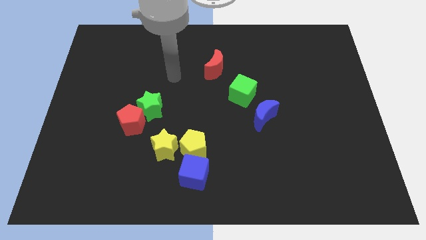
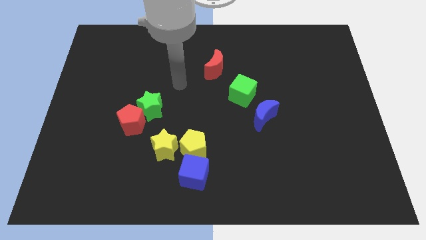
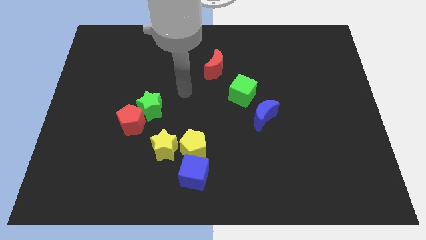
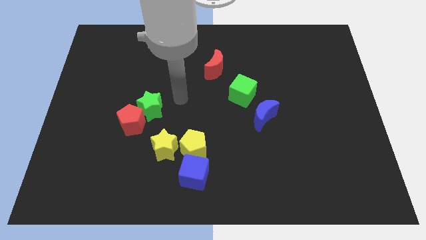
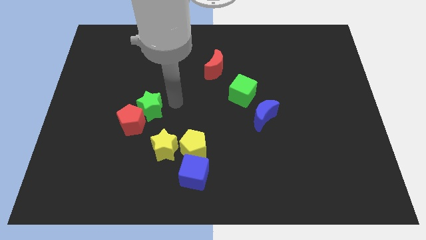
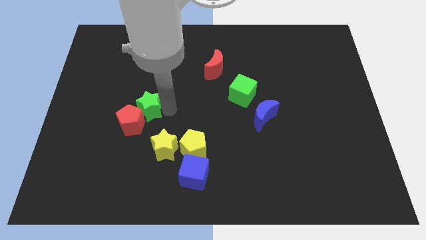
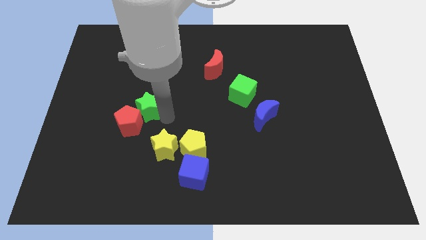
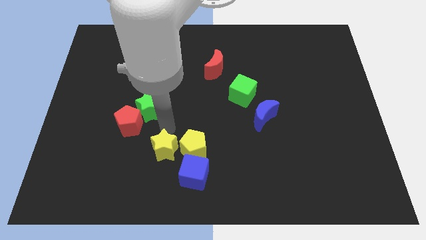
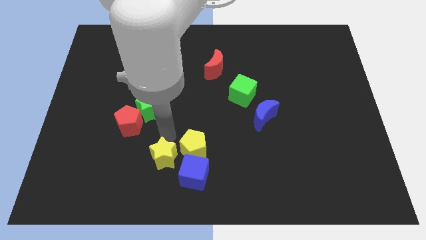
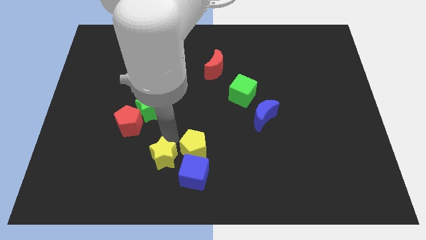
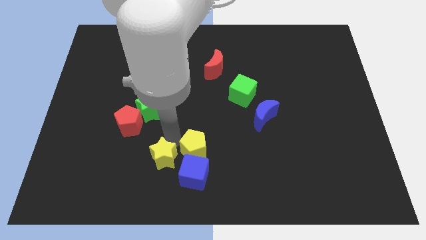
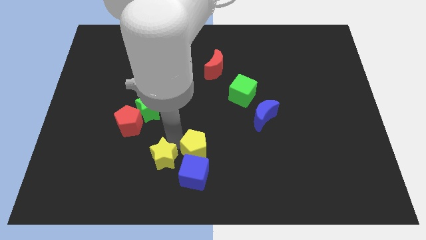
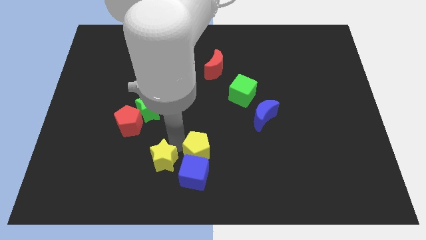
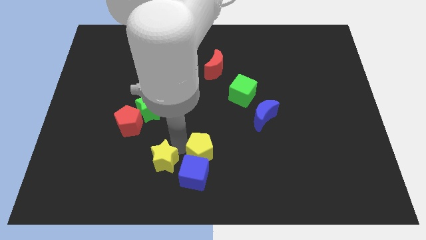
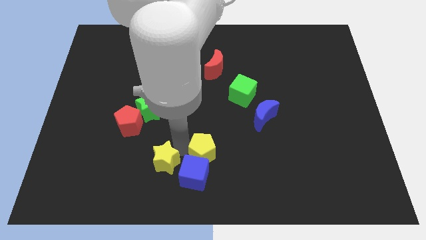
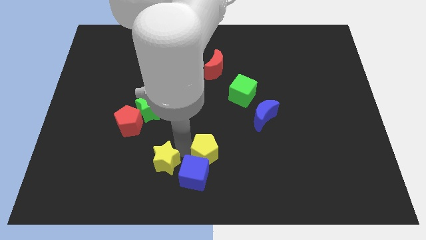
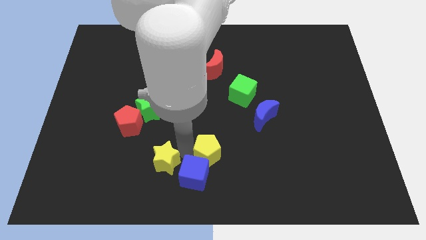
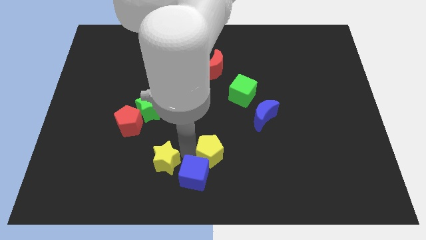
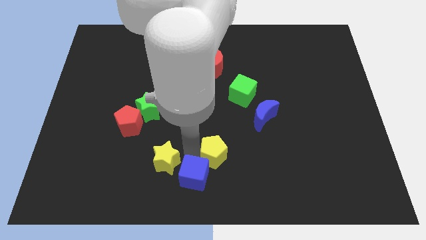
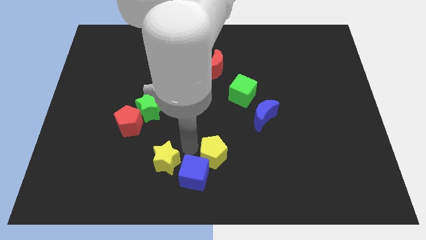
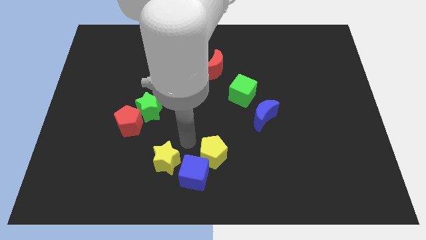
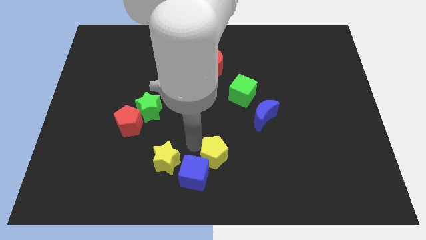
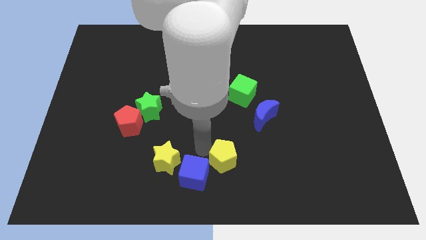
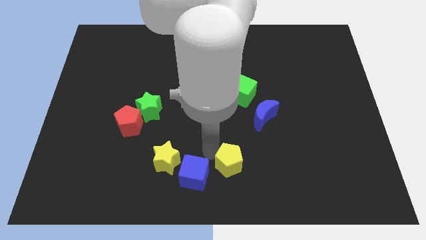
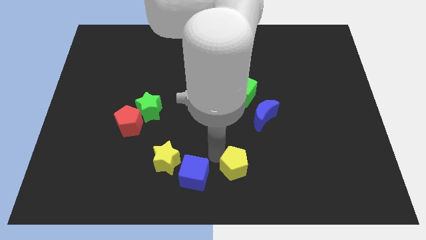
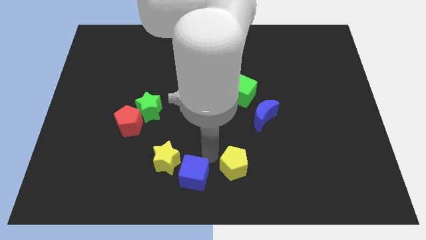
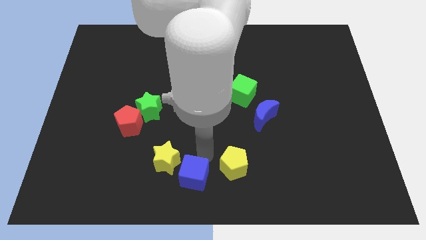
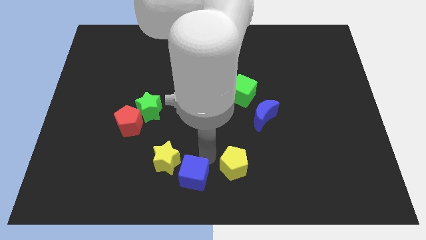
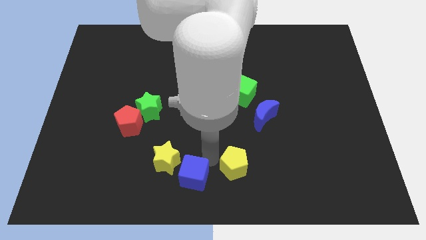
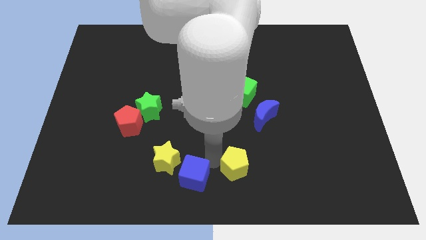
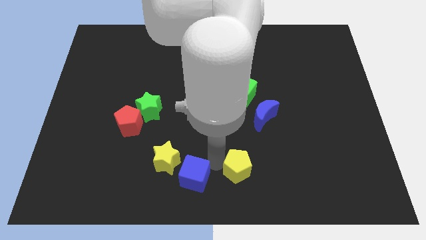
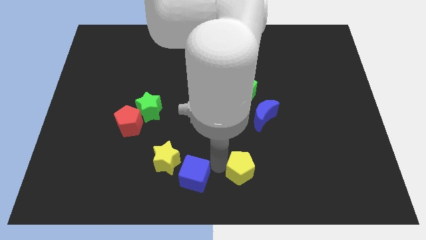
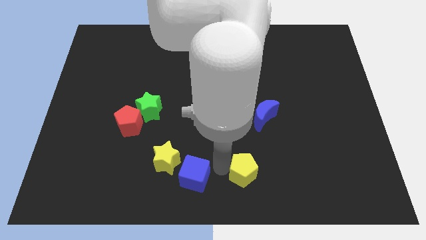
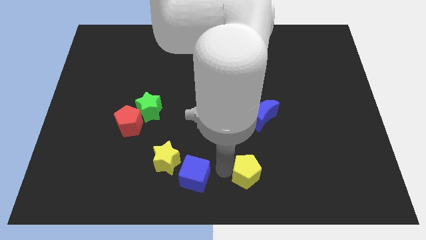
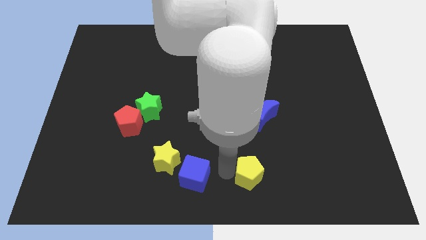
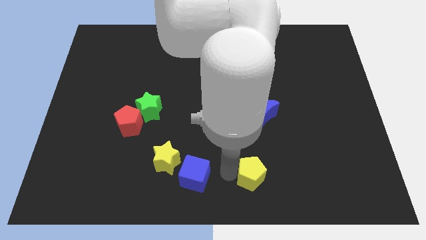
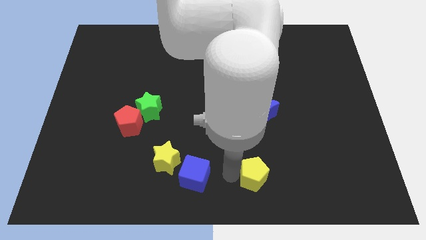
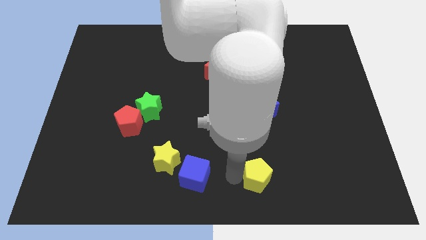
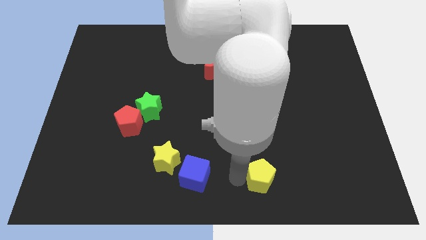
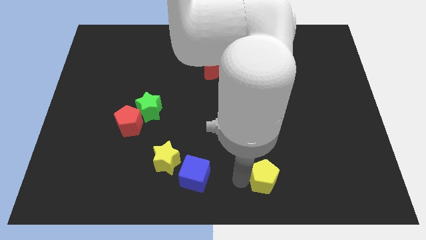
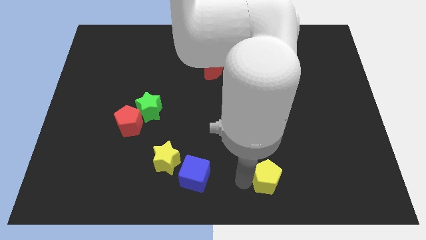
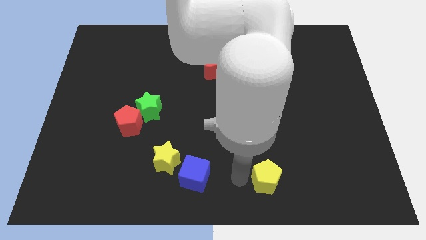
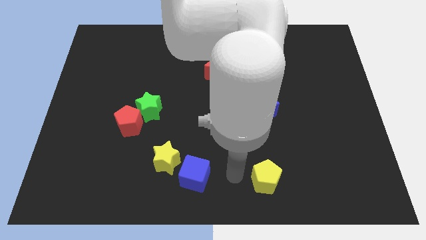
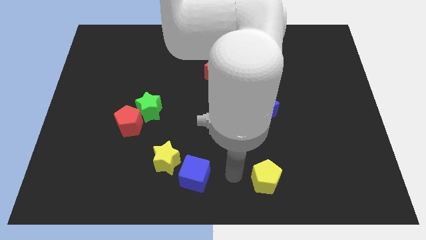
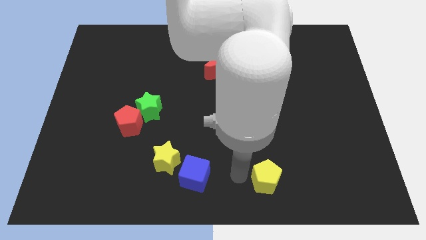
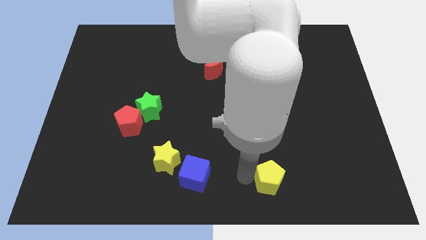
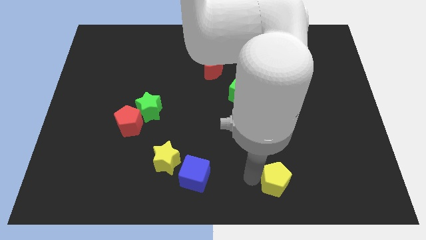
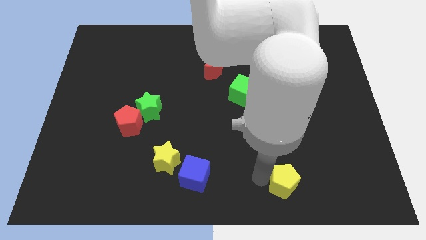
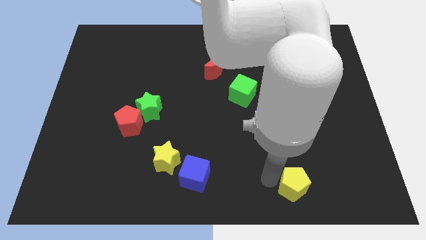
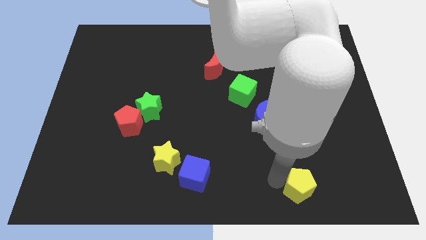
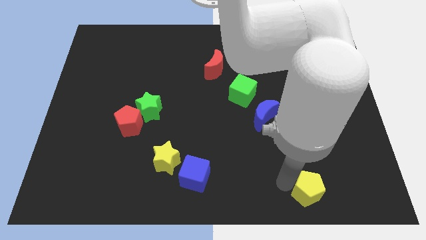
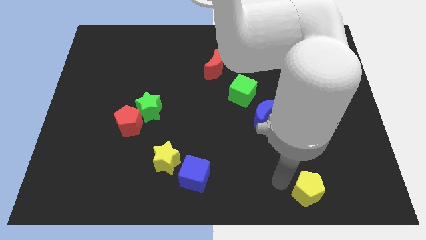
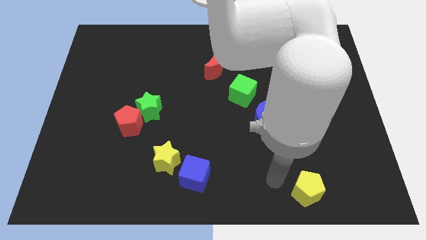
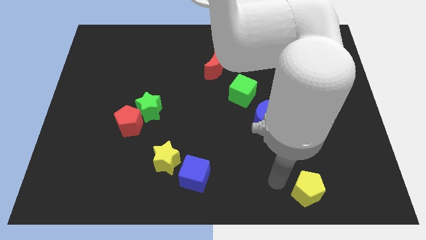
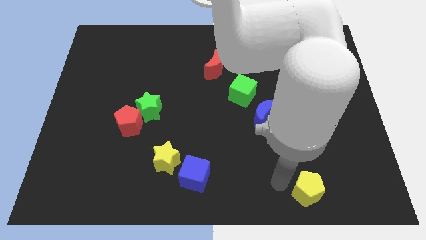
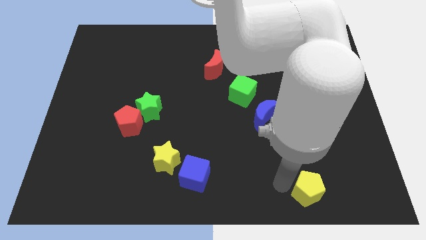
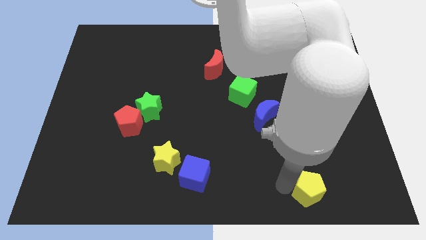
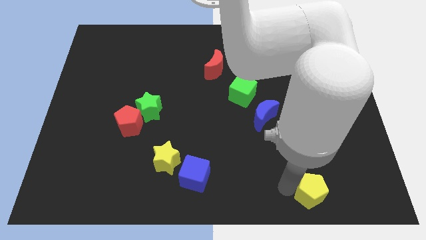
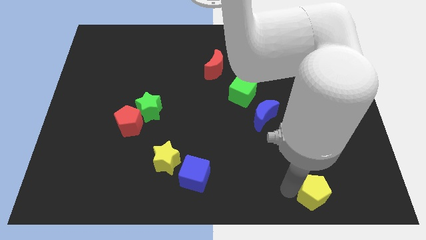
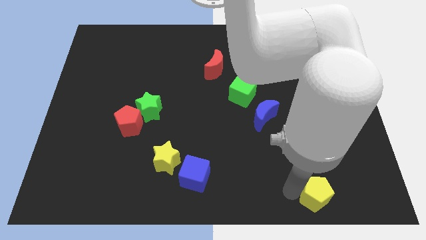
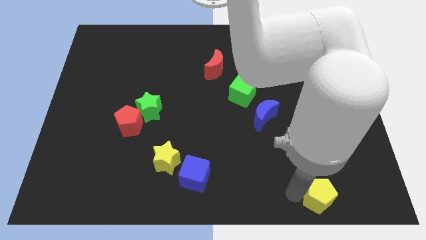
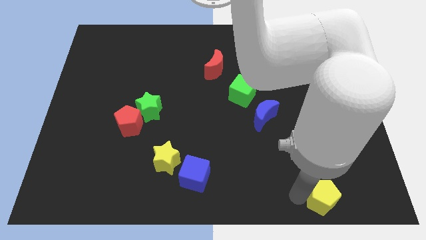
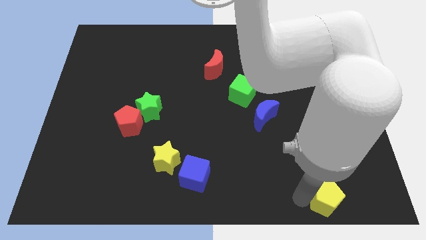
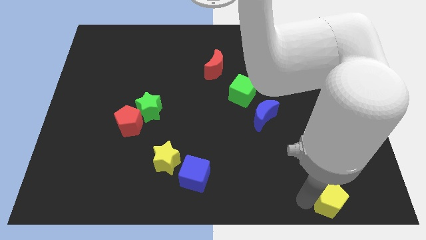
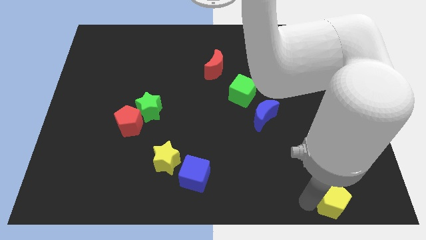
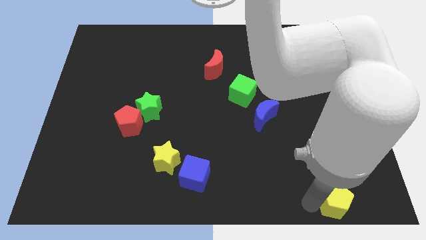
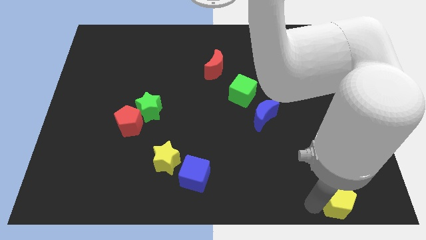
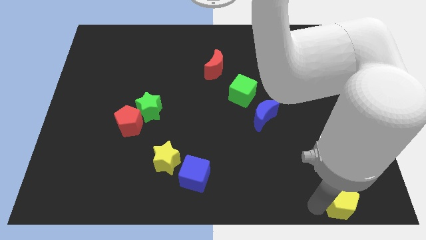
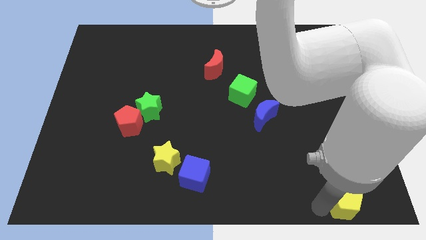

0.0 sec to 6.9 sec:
move the yellow pentagon to the bottom right of the board

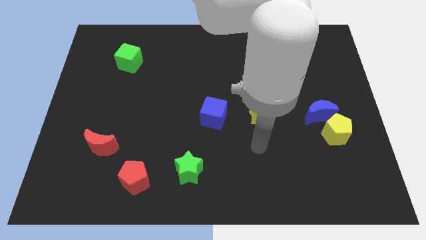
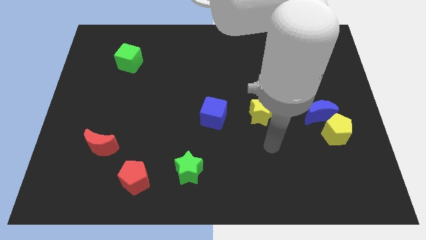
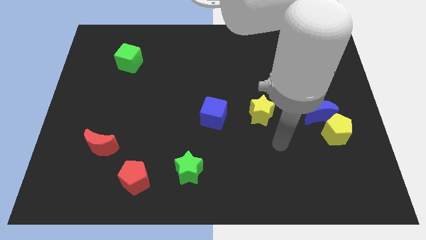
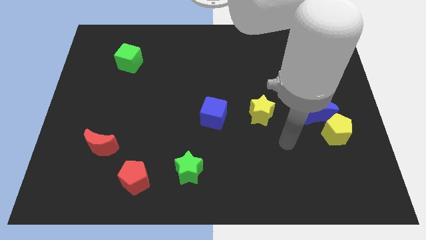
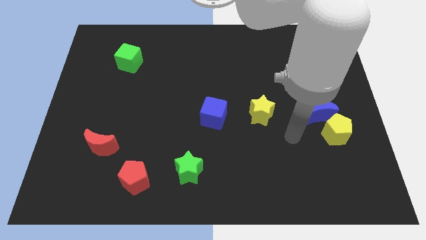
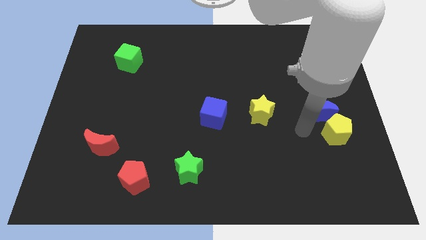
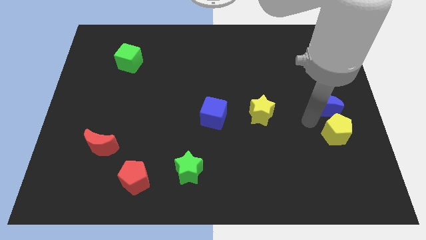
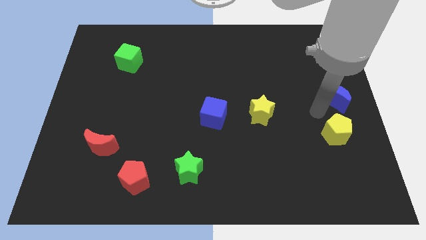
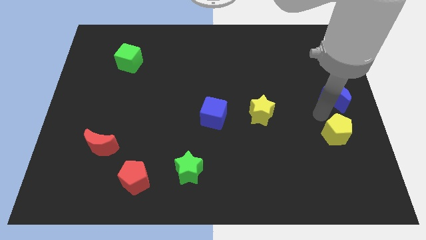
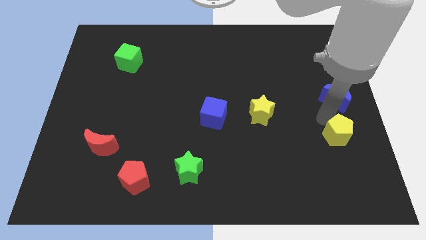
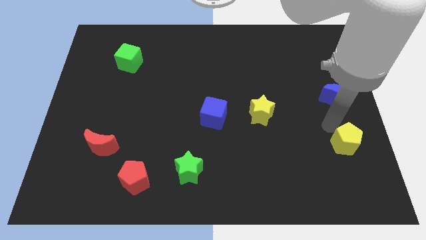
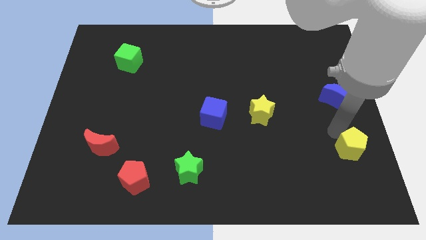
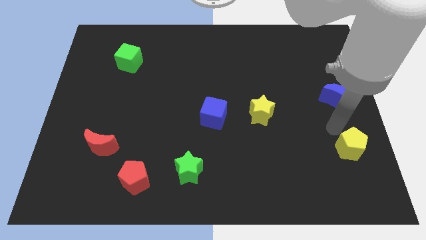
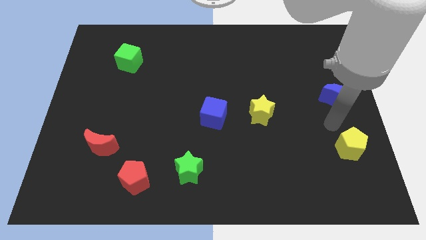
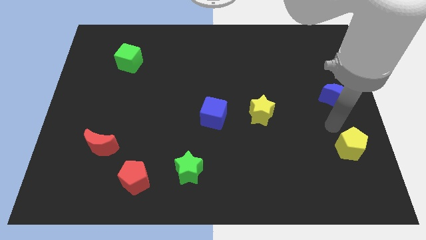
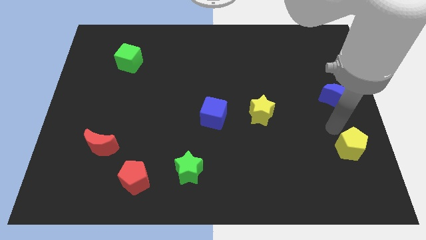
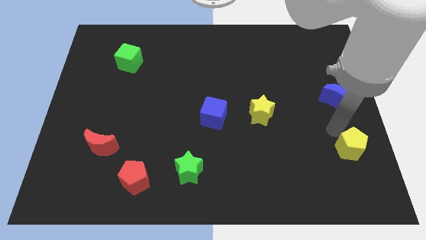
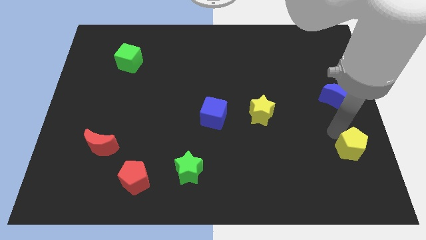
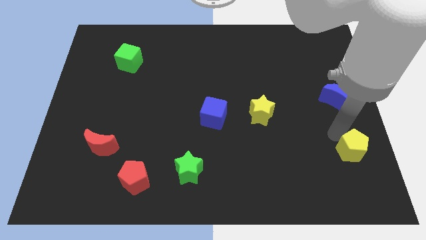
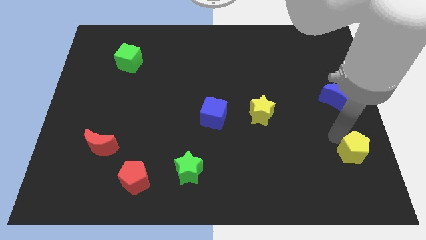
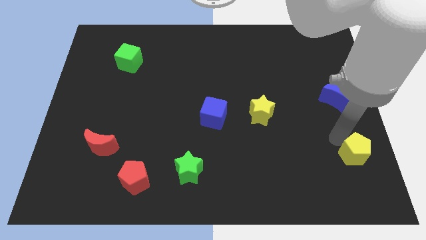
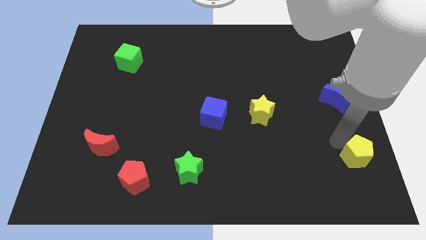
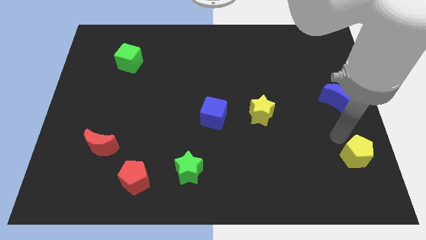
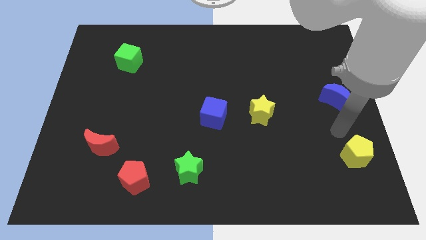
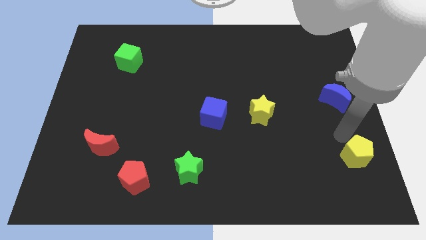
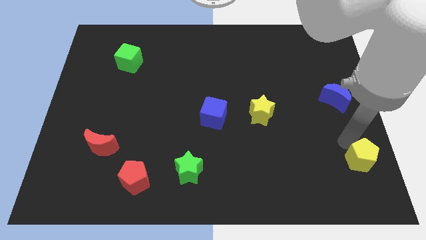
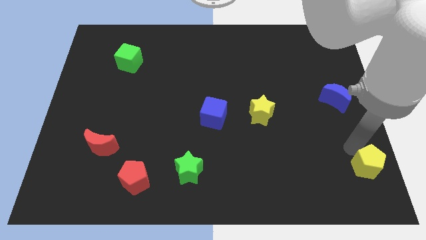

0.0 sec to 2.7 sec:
move the yellow pentagon to the bottom right
